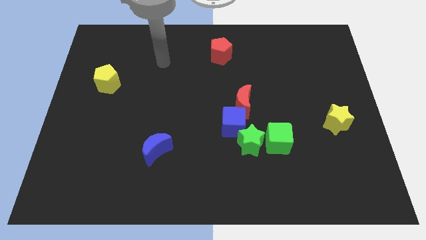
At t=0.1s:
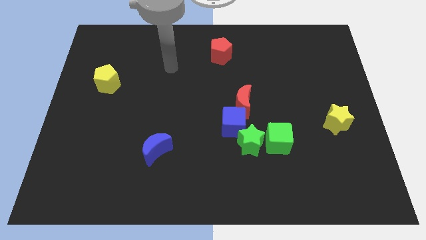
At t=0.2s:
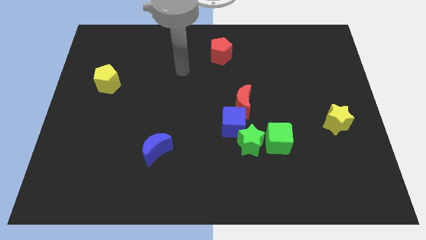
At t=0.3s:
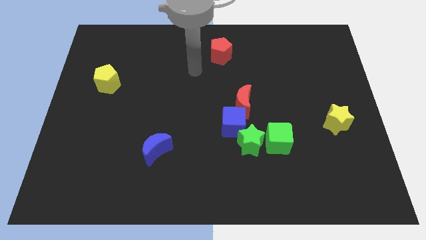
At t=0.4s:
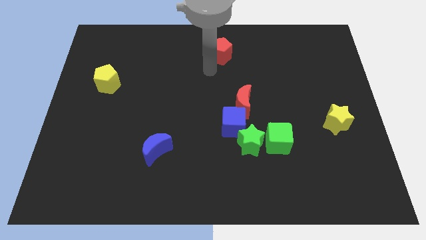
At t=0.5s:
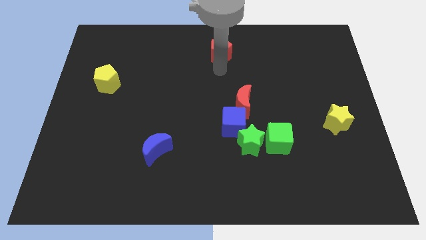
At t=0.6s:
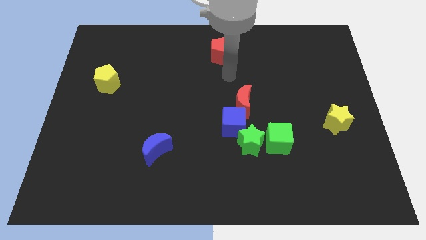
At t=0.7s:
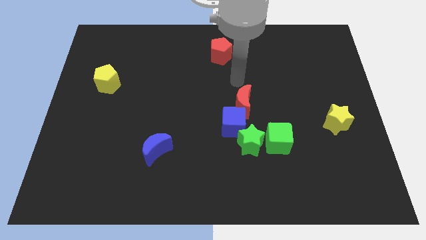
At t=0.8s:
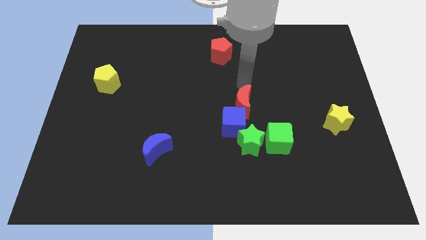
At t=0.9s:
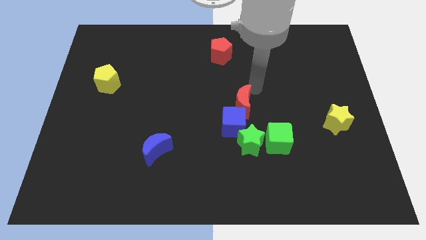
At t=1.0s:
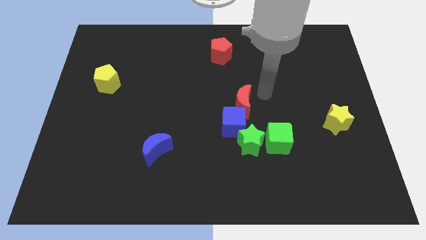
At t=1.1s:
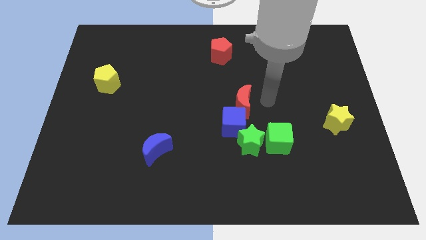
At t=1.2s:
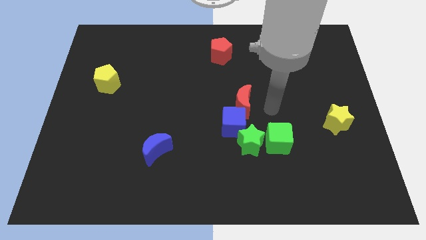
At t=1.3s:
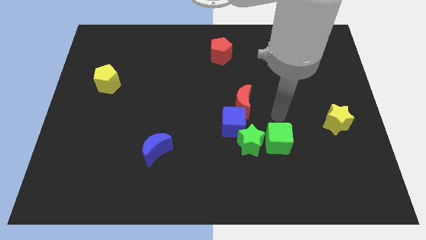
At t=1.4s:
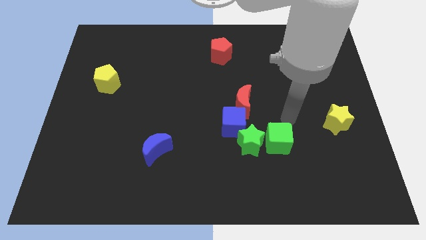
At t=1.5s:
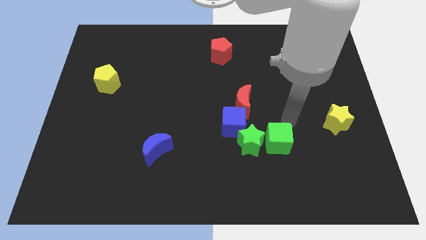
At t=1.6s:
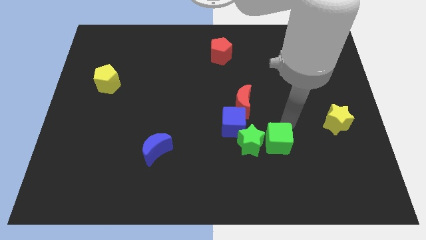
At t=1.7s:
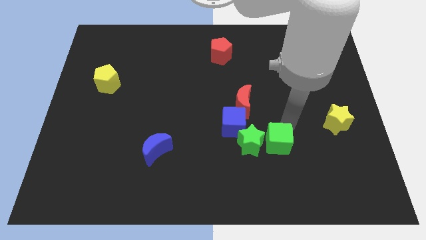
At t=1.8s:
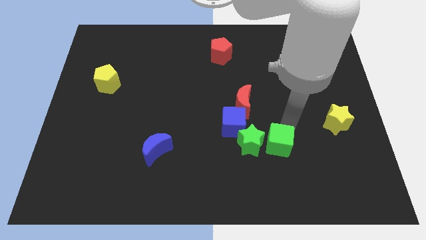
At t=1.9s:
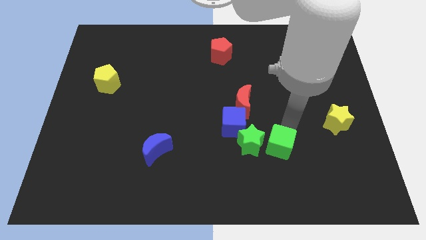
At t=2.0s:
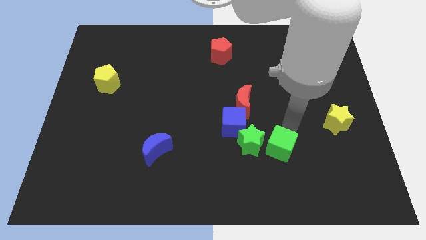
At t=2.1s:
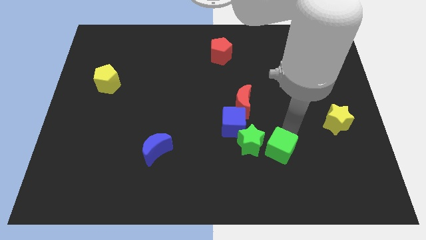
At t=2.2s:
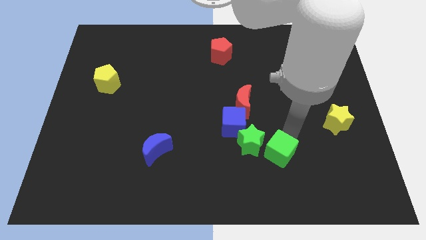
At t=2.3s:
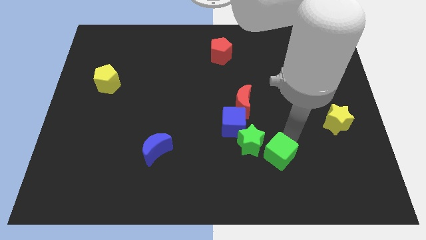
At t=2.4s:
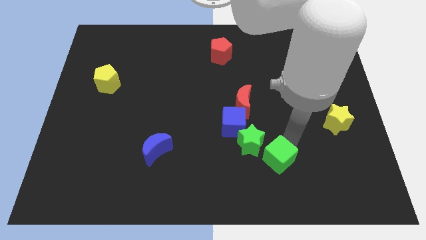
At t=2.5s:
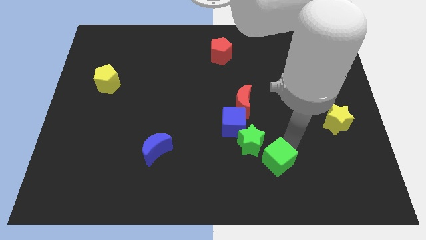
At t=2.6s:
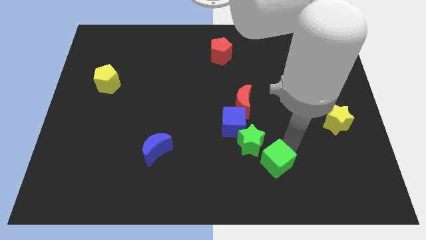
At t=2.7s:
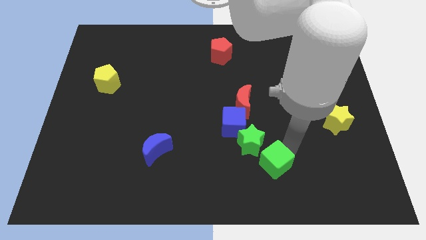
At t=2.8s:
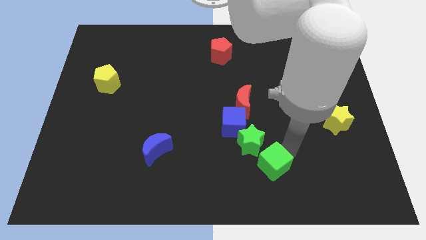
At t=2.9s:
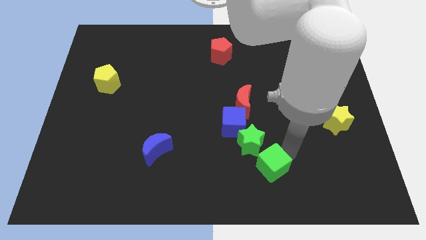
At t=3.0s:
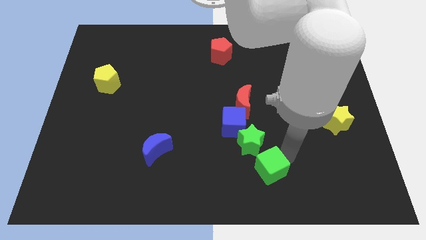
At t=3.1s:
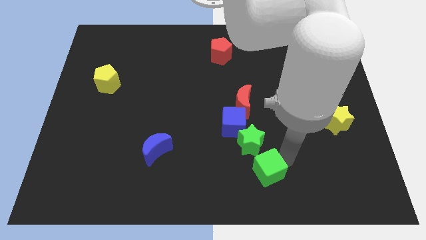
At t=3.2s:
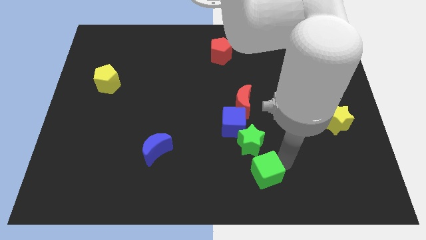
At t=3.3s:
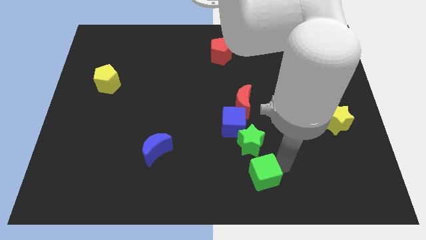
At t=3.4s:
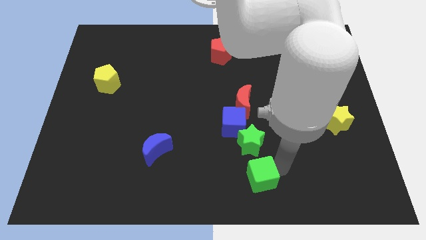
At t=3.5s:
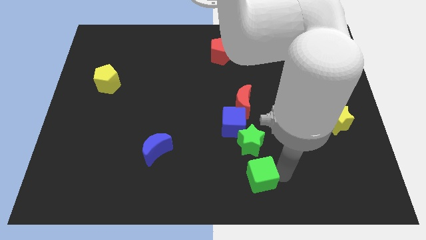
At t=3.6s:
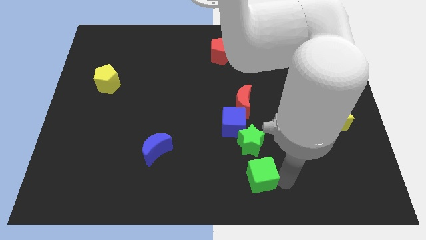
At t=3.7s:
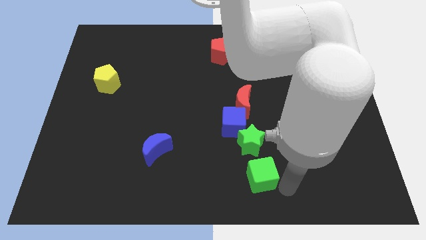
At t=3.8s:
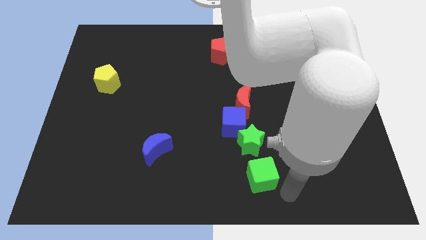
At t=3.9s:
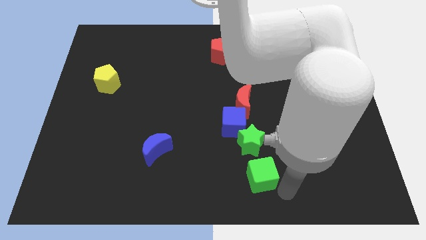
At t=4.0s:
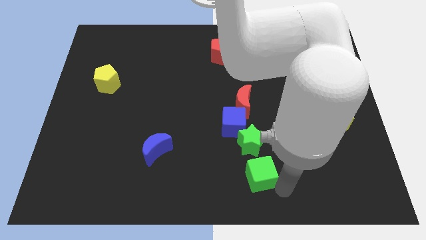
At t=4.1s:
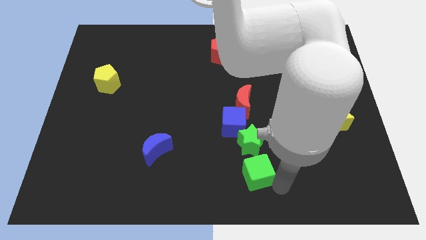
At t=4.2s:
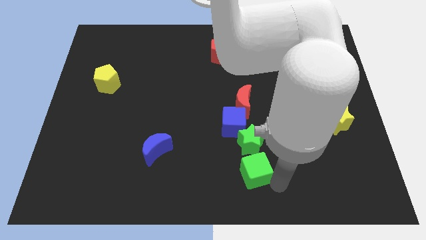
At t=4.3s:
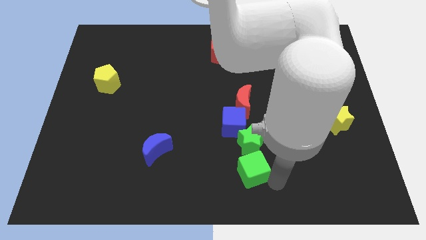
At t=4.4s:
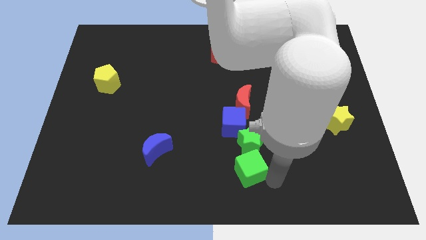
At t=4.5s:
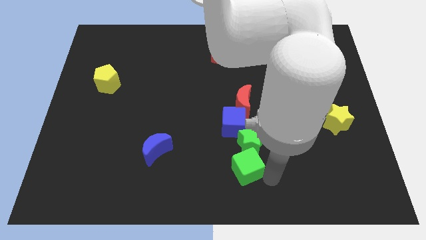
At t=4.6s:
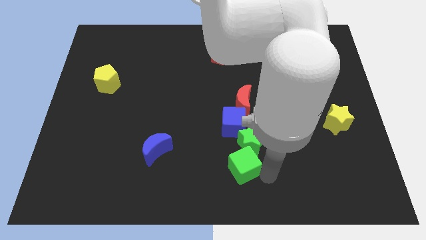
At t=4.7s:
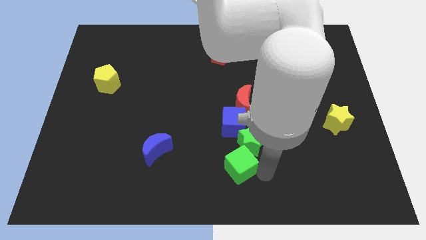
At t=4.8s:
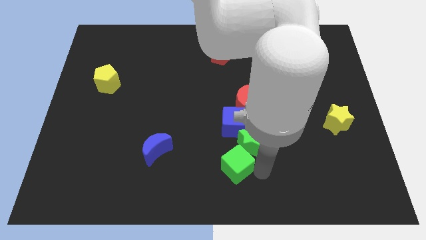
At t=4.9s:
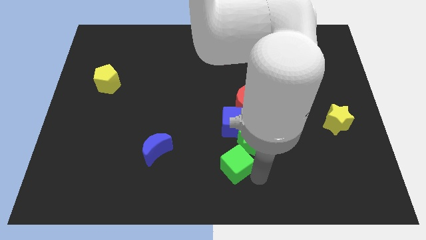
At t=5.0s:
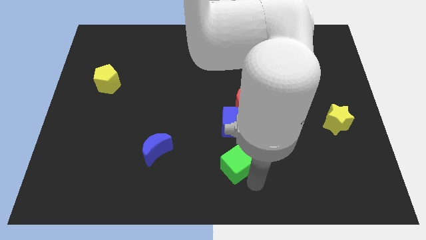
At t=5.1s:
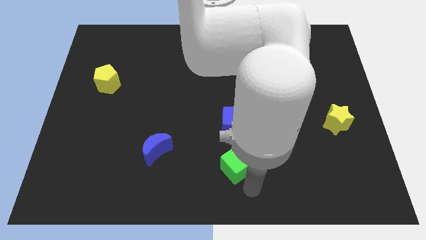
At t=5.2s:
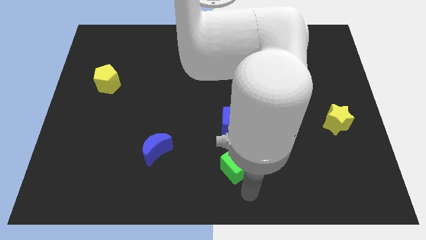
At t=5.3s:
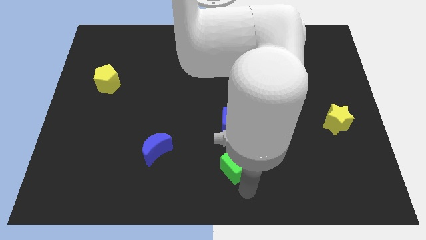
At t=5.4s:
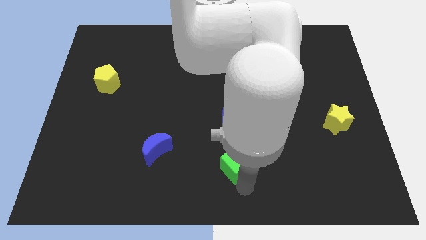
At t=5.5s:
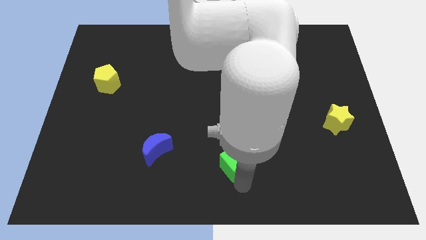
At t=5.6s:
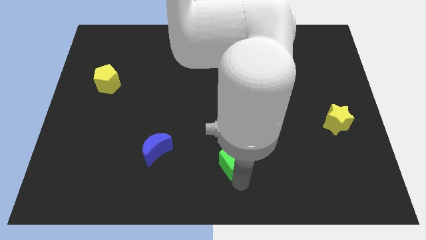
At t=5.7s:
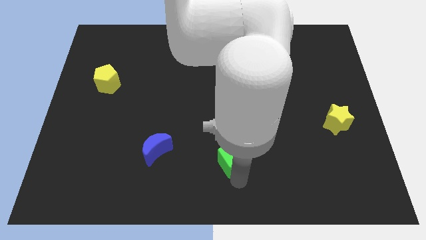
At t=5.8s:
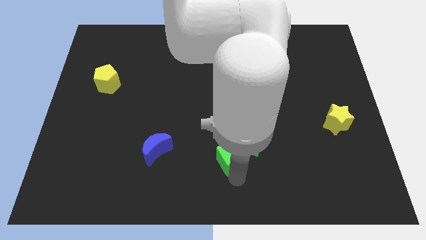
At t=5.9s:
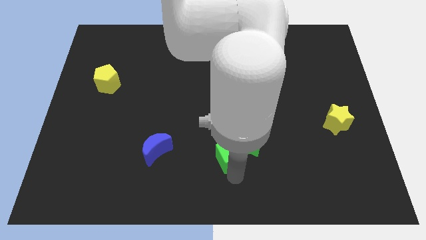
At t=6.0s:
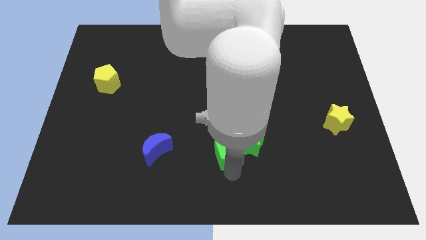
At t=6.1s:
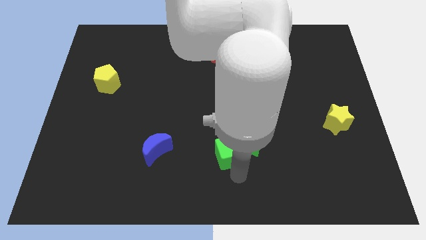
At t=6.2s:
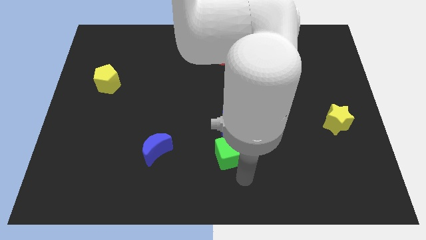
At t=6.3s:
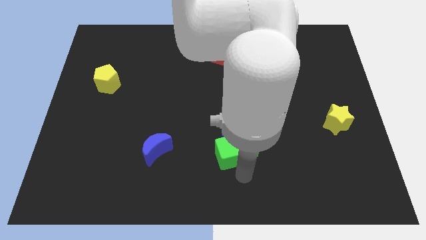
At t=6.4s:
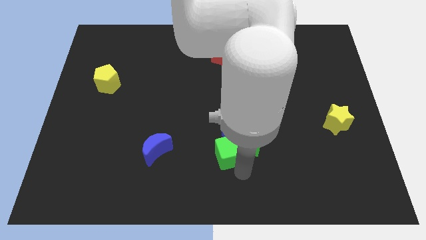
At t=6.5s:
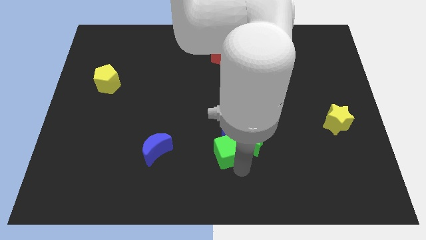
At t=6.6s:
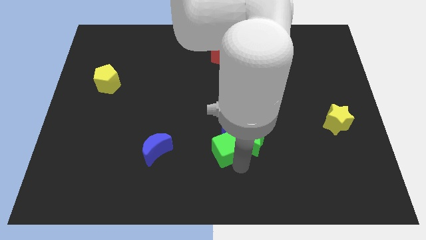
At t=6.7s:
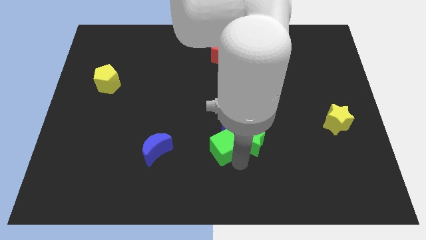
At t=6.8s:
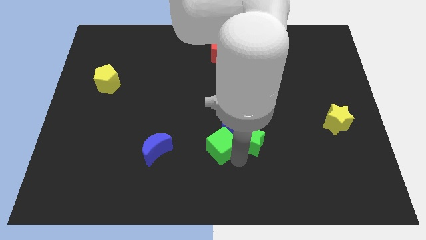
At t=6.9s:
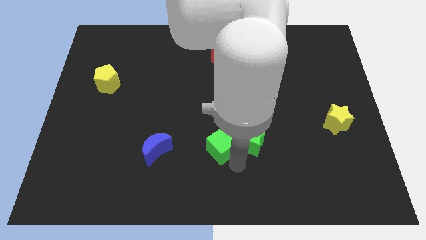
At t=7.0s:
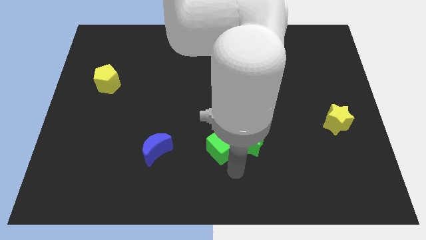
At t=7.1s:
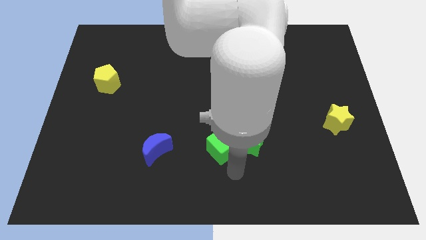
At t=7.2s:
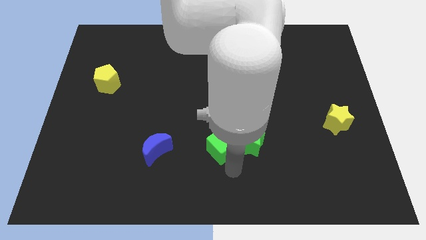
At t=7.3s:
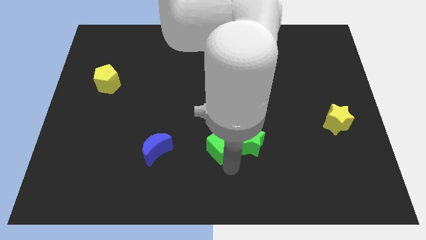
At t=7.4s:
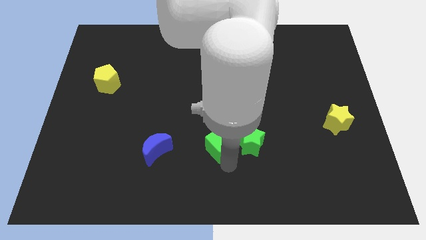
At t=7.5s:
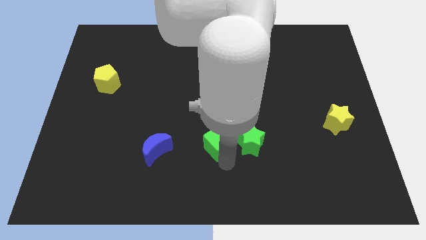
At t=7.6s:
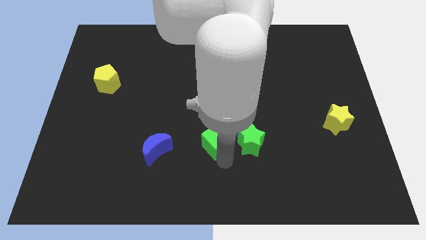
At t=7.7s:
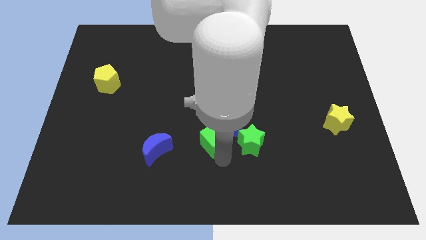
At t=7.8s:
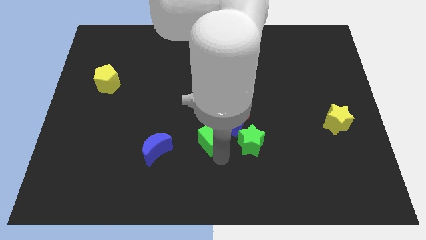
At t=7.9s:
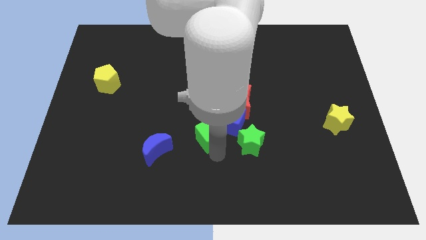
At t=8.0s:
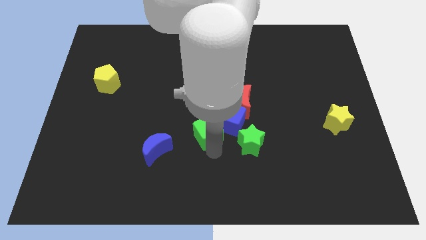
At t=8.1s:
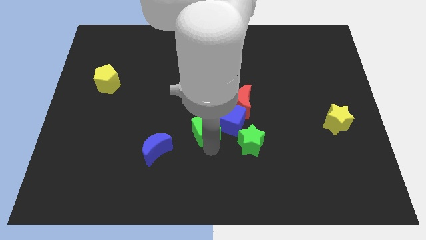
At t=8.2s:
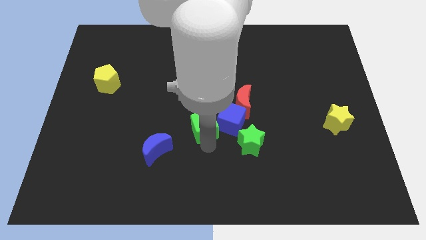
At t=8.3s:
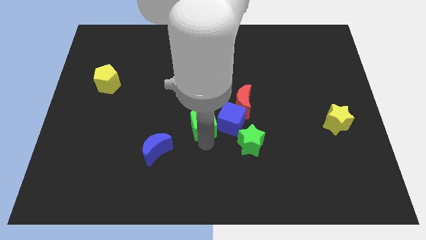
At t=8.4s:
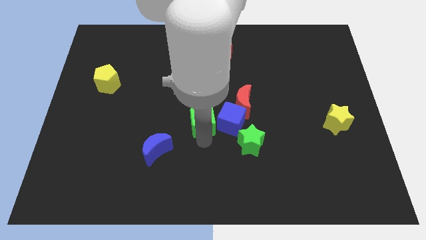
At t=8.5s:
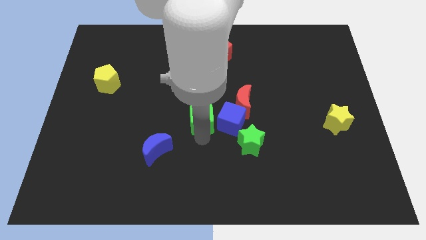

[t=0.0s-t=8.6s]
slide the green cube to the left side of the red moon
